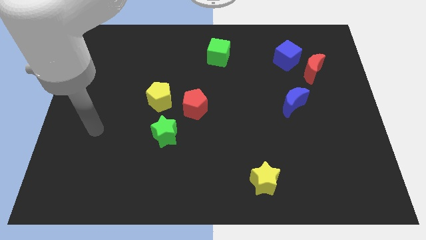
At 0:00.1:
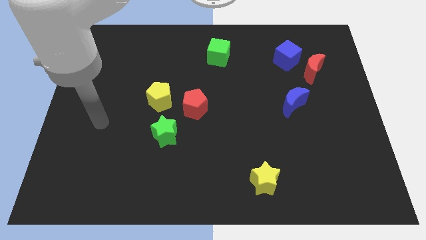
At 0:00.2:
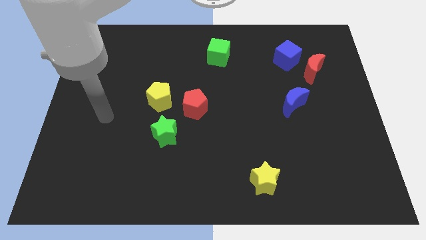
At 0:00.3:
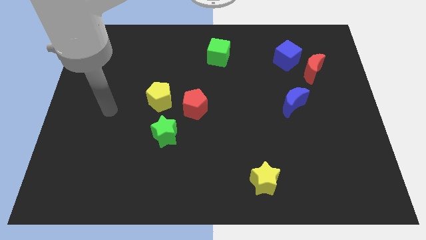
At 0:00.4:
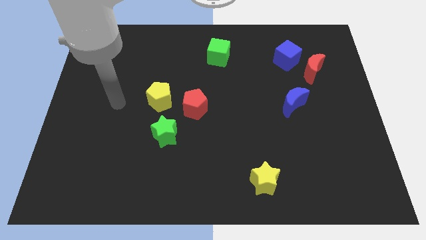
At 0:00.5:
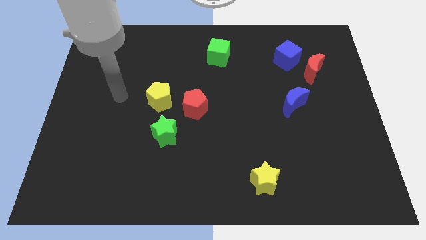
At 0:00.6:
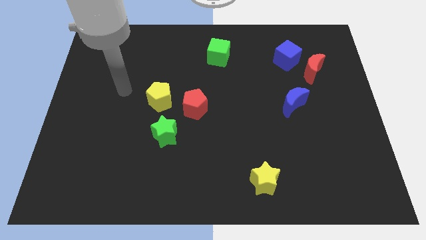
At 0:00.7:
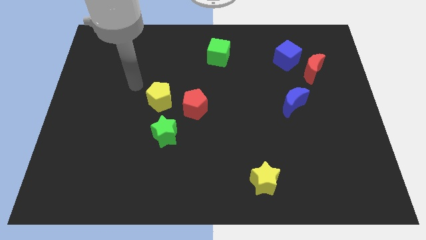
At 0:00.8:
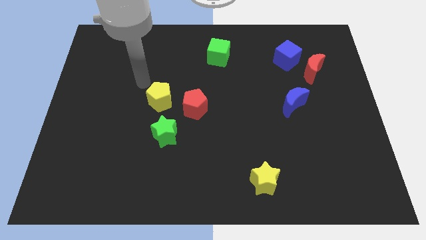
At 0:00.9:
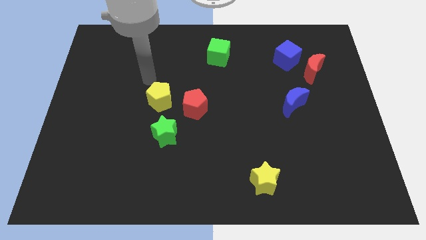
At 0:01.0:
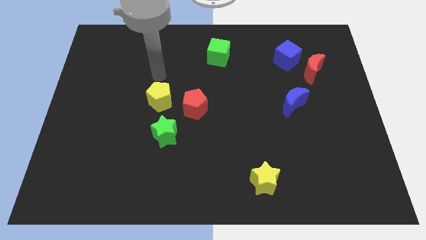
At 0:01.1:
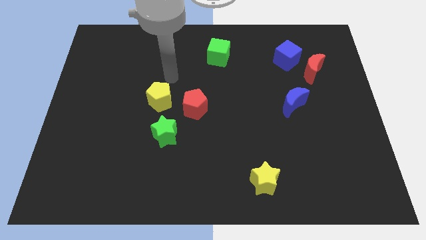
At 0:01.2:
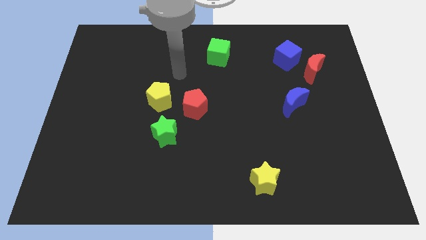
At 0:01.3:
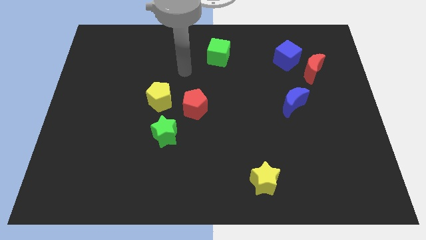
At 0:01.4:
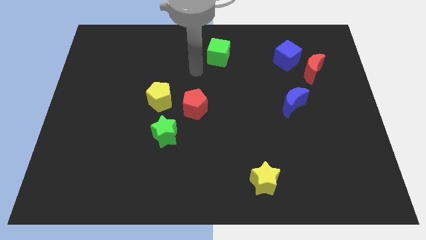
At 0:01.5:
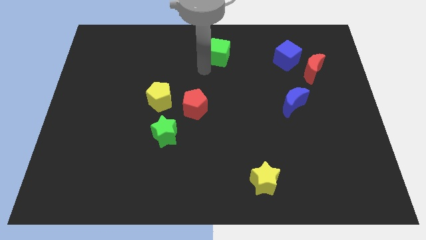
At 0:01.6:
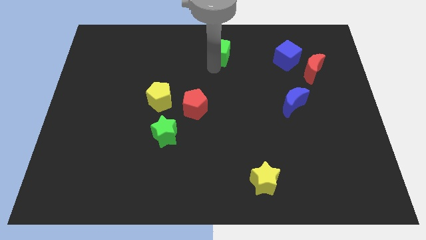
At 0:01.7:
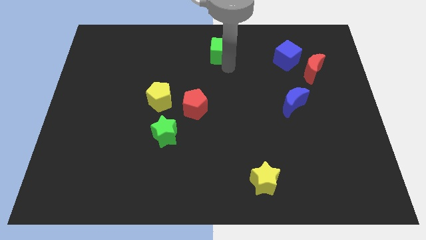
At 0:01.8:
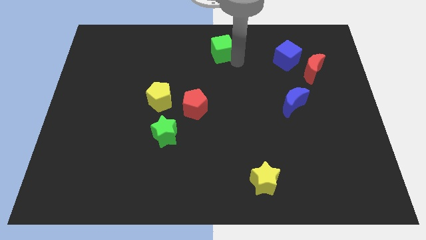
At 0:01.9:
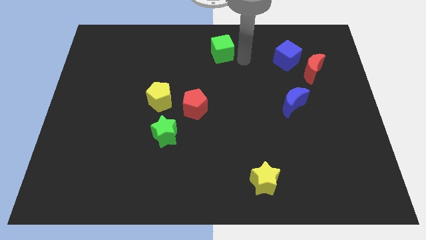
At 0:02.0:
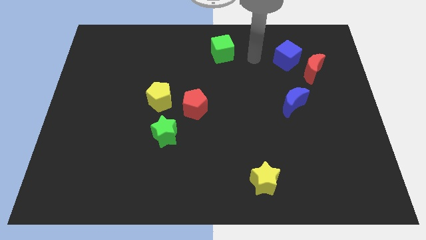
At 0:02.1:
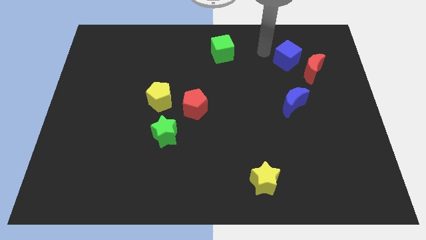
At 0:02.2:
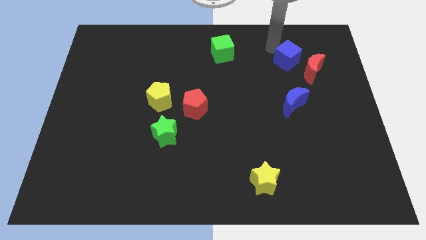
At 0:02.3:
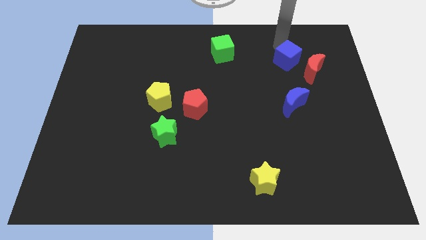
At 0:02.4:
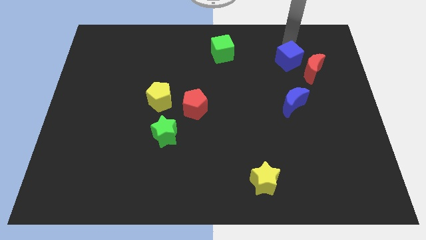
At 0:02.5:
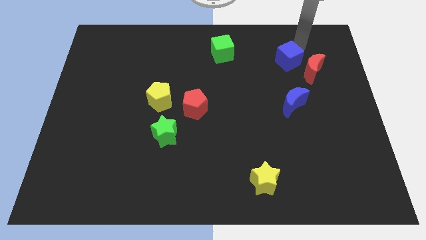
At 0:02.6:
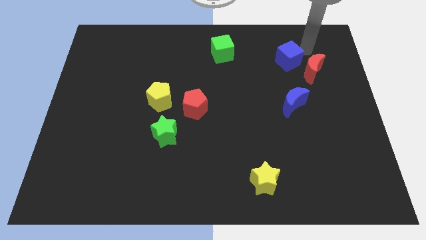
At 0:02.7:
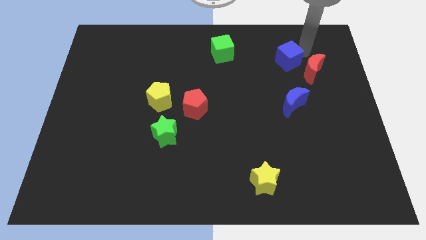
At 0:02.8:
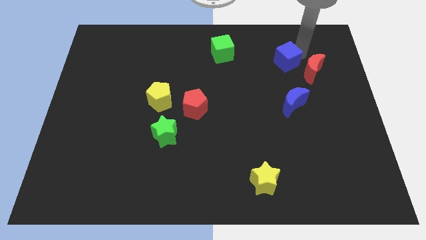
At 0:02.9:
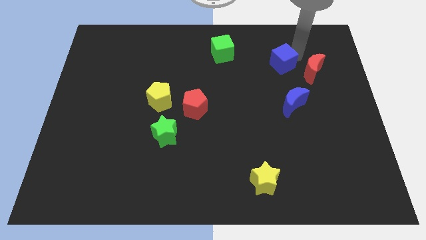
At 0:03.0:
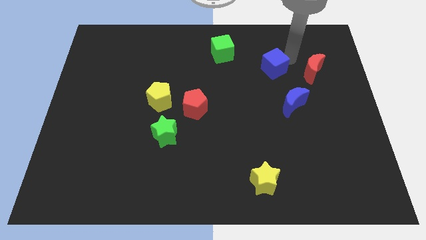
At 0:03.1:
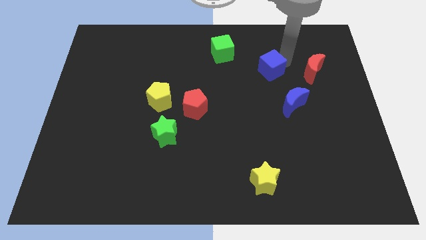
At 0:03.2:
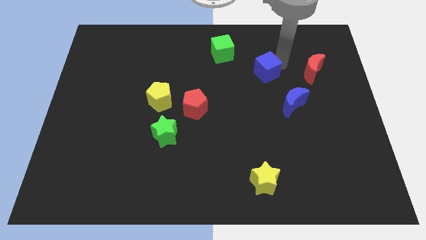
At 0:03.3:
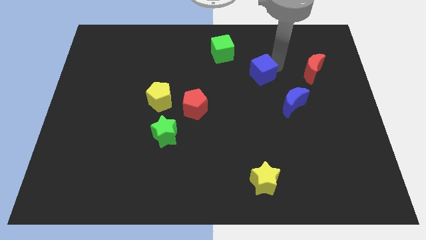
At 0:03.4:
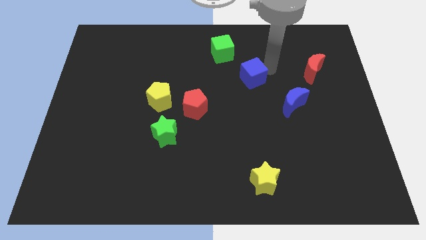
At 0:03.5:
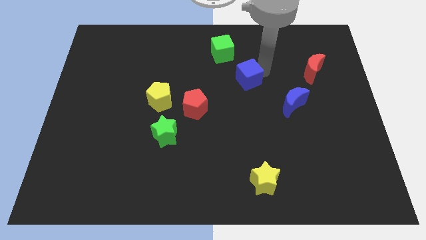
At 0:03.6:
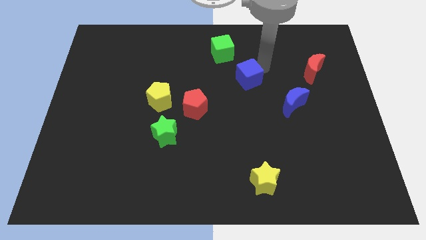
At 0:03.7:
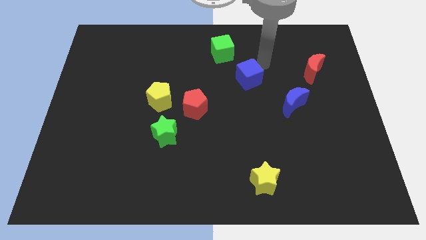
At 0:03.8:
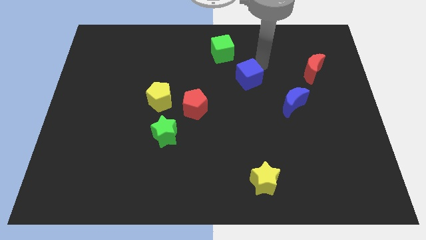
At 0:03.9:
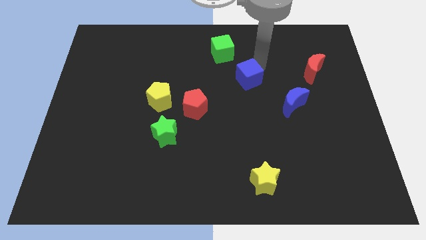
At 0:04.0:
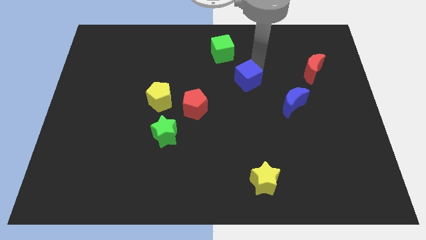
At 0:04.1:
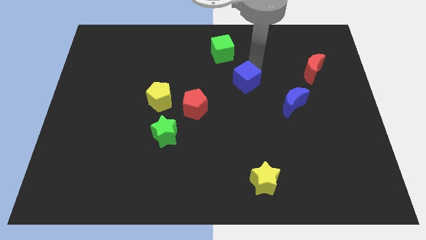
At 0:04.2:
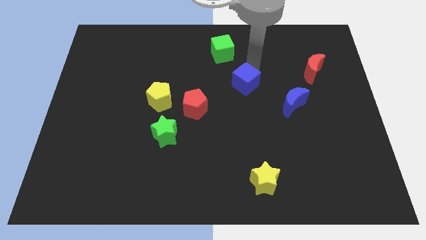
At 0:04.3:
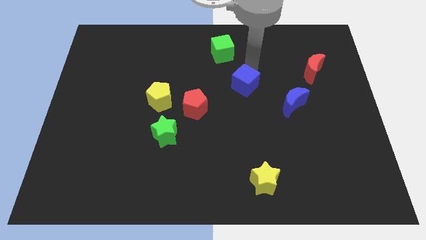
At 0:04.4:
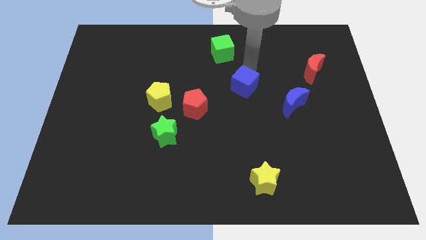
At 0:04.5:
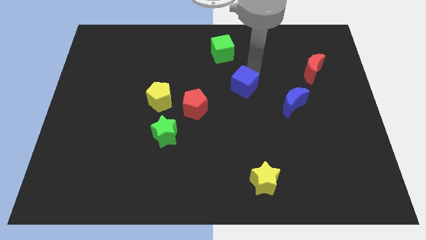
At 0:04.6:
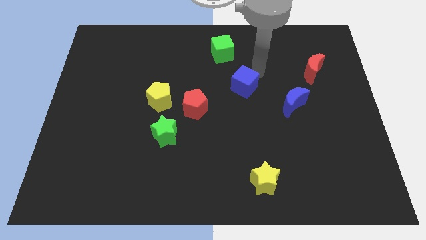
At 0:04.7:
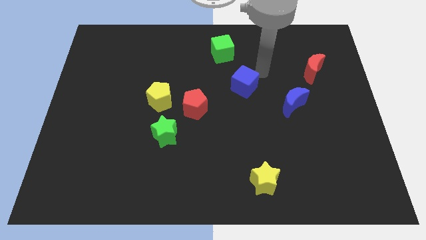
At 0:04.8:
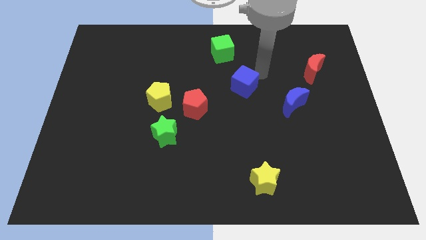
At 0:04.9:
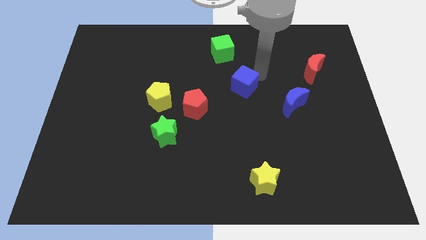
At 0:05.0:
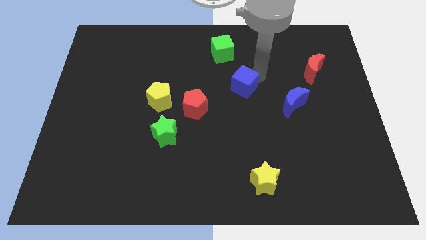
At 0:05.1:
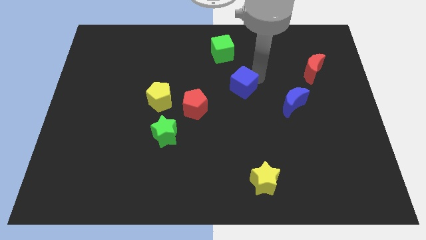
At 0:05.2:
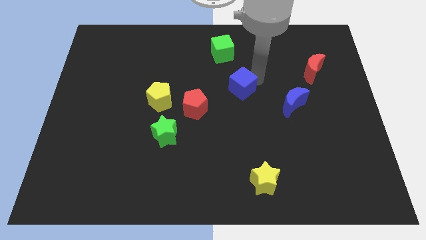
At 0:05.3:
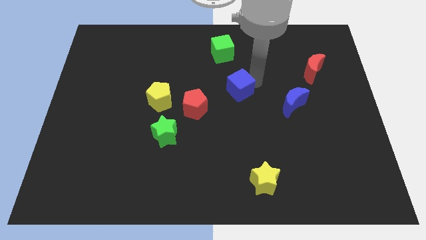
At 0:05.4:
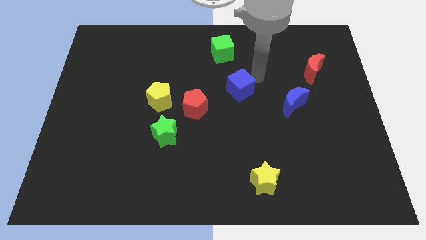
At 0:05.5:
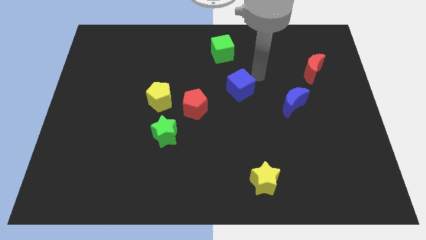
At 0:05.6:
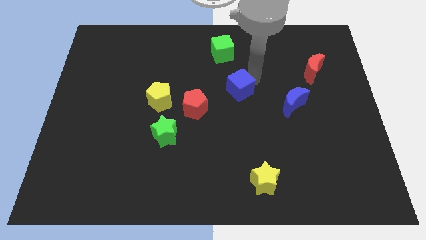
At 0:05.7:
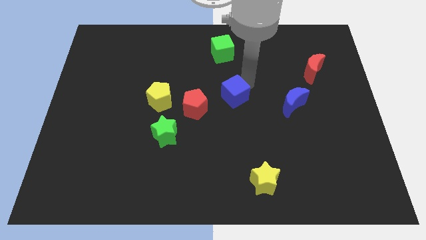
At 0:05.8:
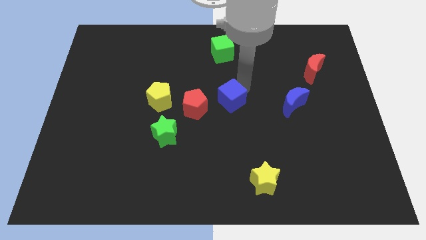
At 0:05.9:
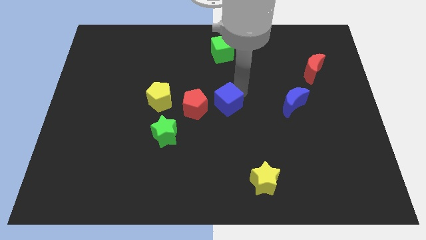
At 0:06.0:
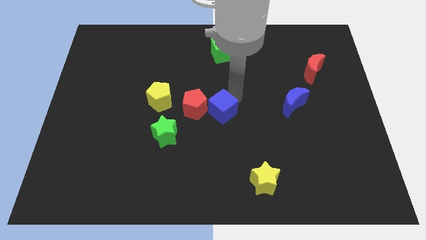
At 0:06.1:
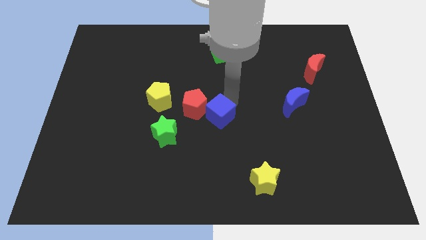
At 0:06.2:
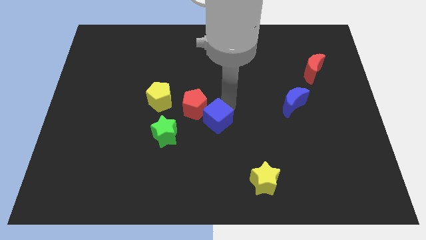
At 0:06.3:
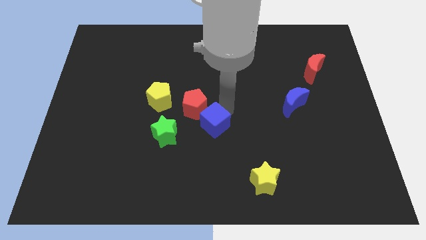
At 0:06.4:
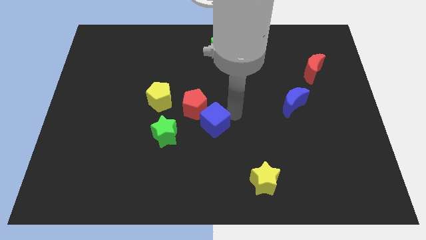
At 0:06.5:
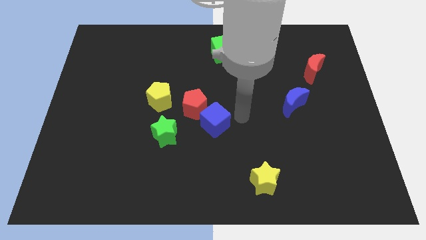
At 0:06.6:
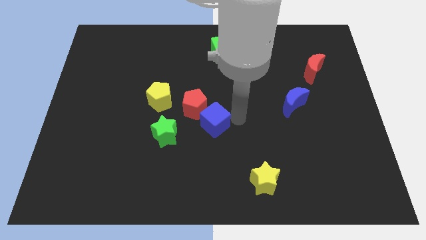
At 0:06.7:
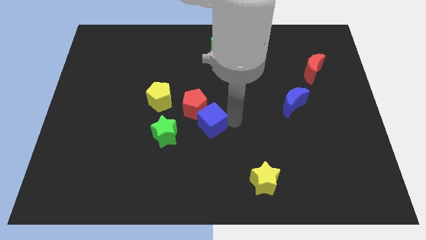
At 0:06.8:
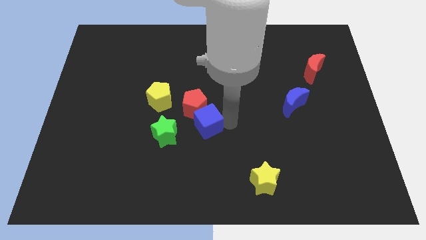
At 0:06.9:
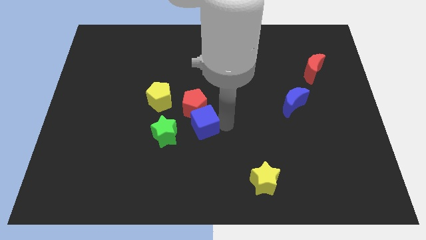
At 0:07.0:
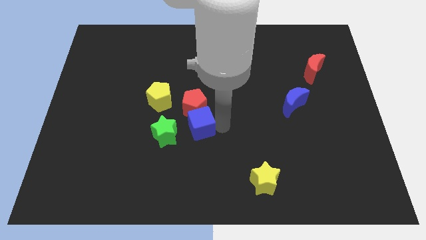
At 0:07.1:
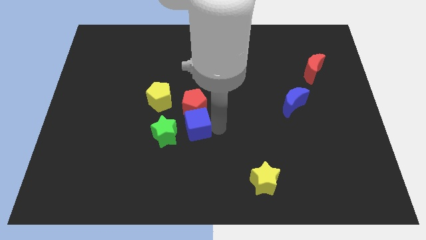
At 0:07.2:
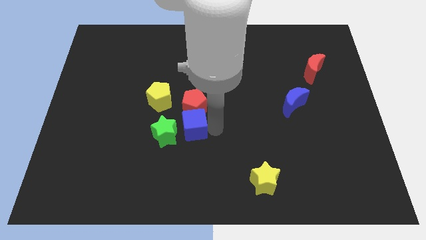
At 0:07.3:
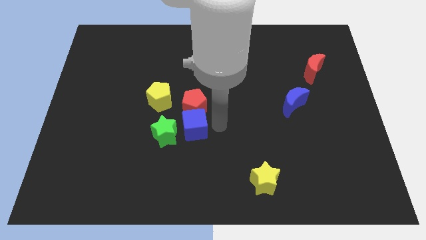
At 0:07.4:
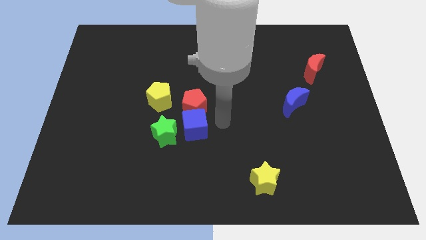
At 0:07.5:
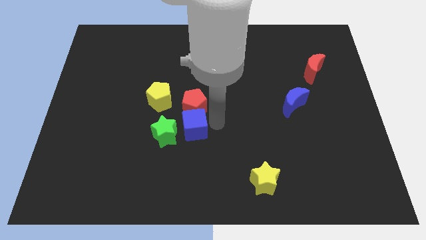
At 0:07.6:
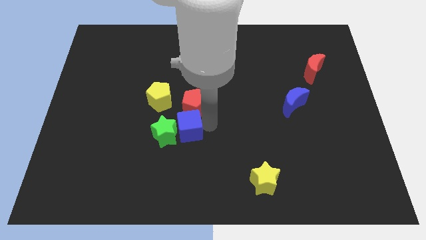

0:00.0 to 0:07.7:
put the blue cube close to the green star

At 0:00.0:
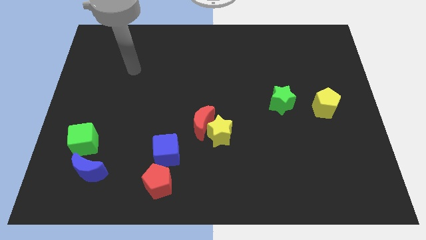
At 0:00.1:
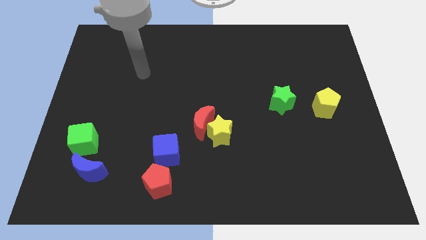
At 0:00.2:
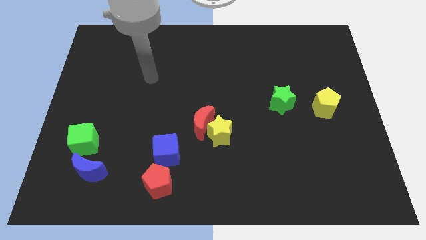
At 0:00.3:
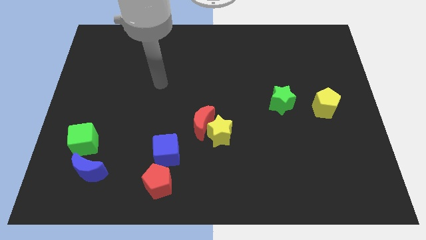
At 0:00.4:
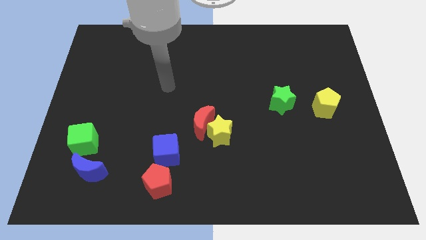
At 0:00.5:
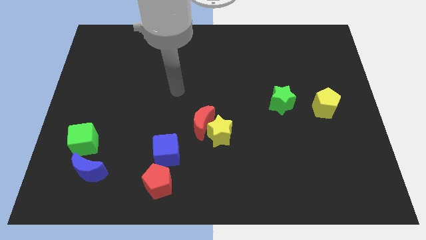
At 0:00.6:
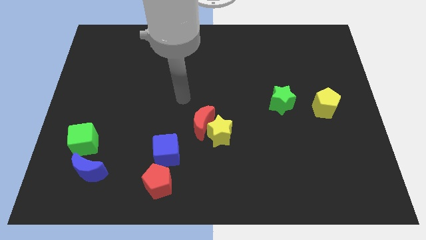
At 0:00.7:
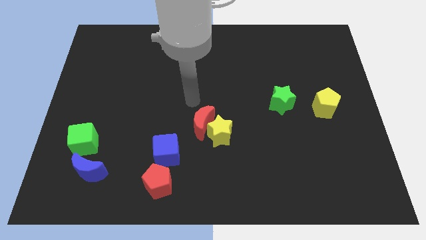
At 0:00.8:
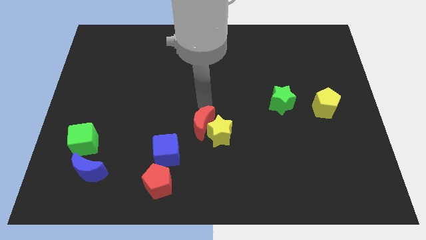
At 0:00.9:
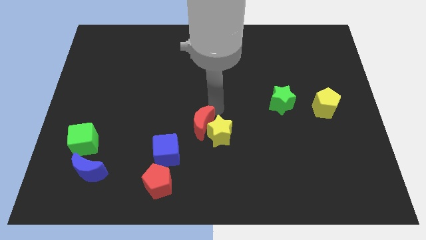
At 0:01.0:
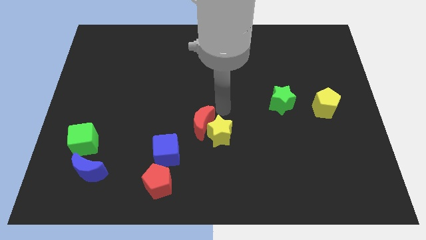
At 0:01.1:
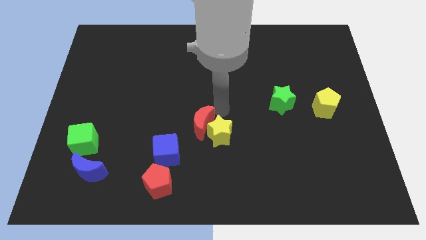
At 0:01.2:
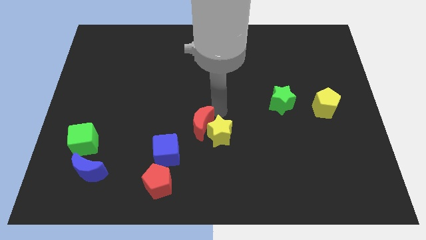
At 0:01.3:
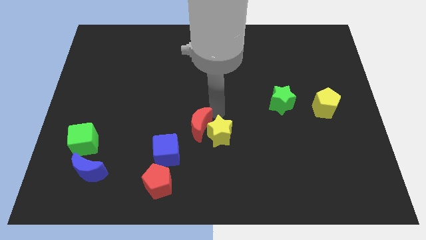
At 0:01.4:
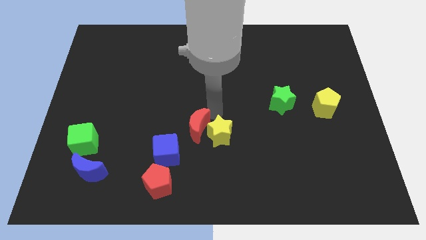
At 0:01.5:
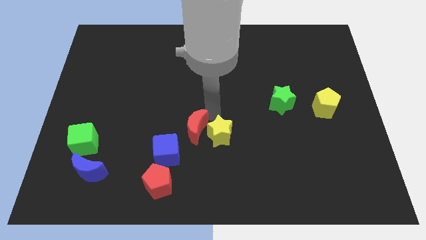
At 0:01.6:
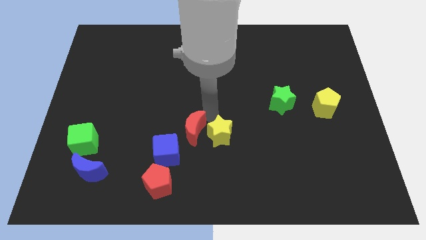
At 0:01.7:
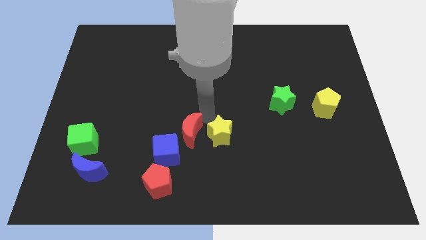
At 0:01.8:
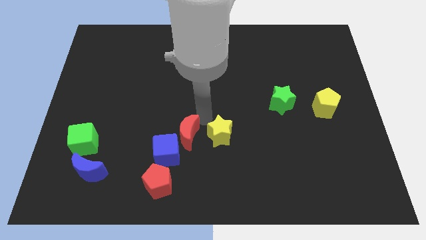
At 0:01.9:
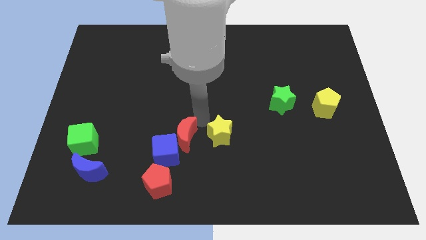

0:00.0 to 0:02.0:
slide the red moon to the blue cube
